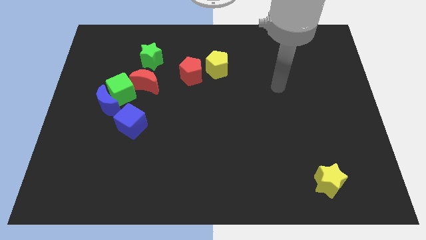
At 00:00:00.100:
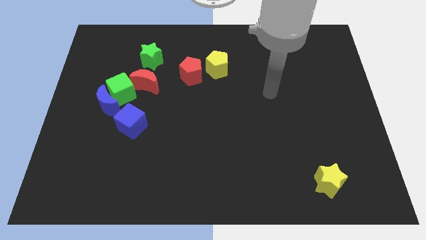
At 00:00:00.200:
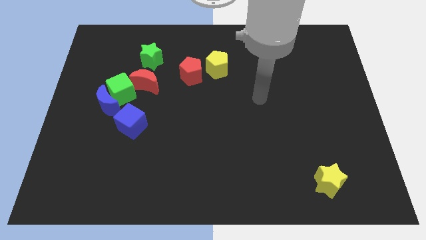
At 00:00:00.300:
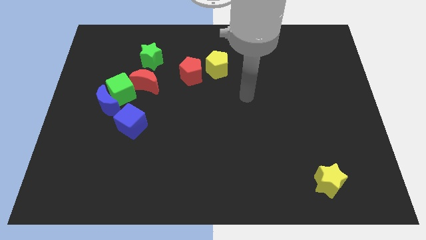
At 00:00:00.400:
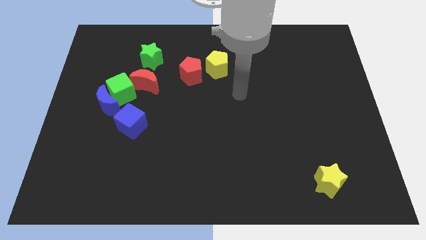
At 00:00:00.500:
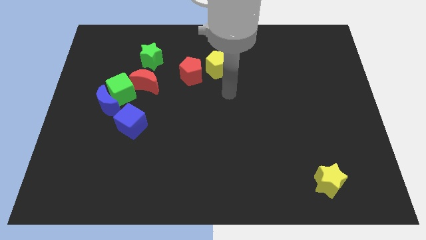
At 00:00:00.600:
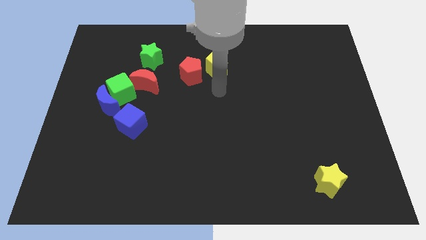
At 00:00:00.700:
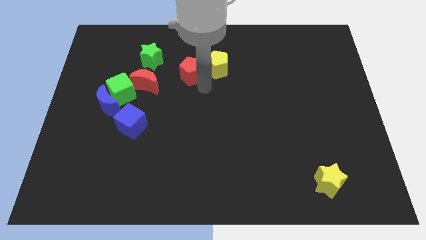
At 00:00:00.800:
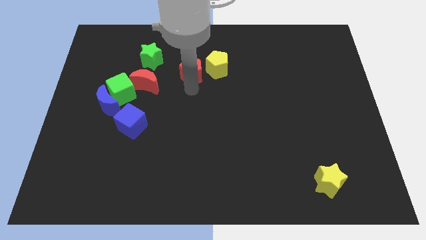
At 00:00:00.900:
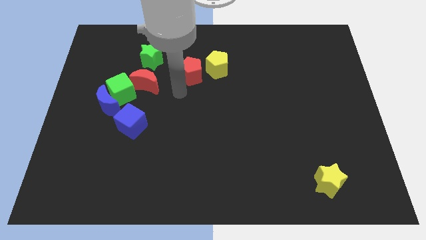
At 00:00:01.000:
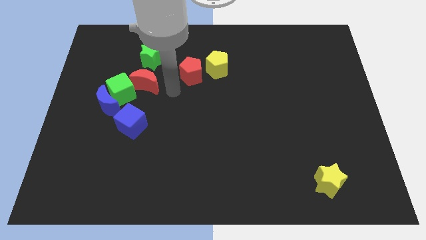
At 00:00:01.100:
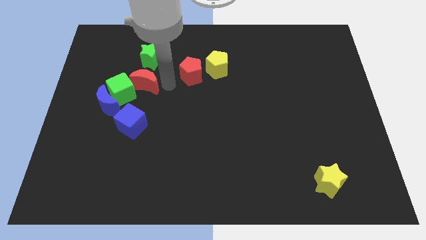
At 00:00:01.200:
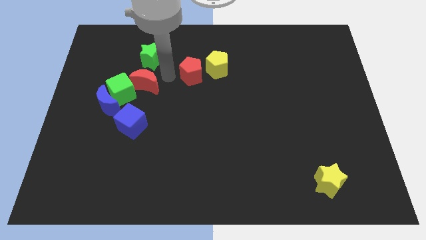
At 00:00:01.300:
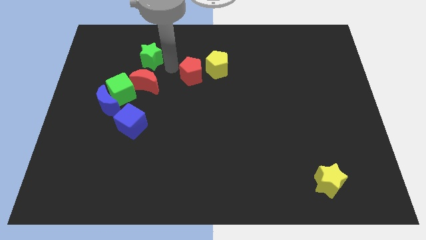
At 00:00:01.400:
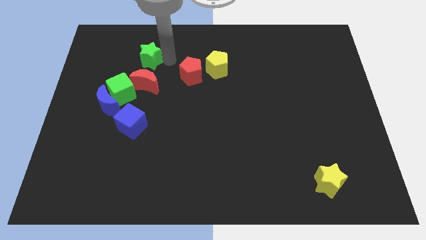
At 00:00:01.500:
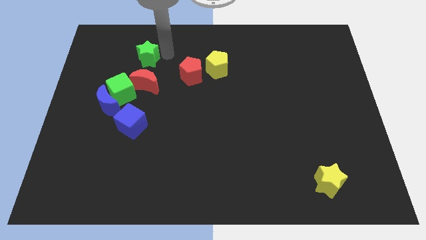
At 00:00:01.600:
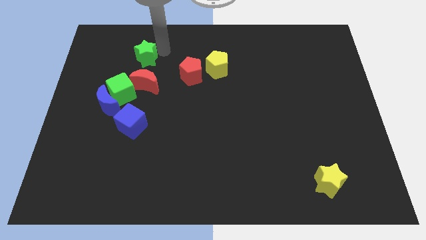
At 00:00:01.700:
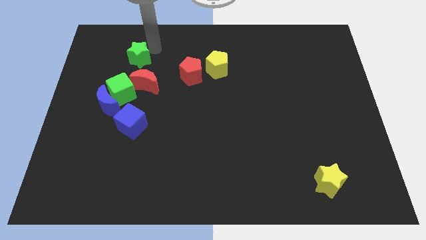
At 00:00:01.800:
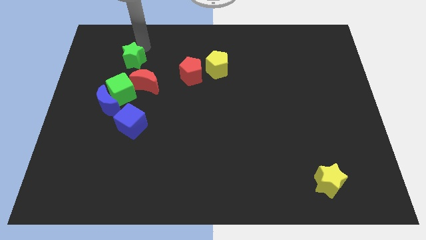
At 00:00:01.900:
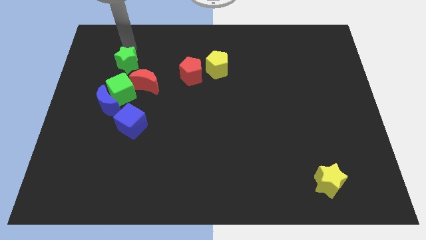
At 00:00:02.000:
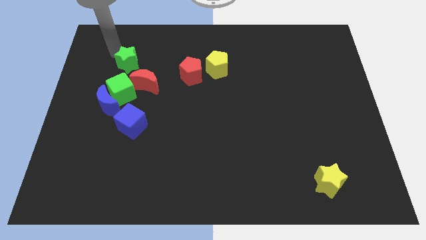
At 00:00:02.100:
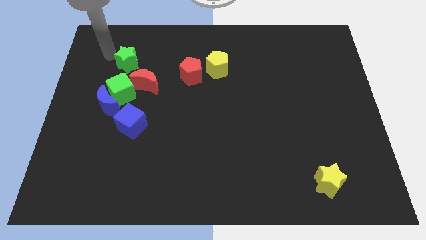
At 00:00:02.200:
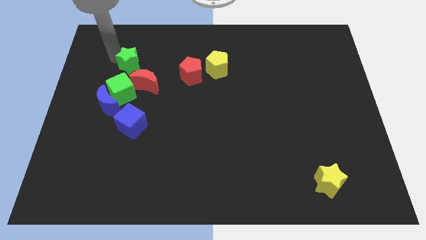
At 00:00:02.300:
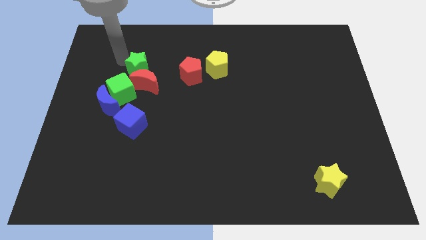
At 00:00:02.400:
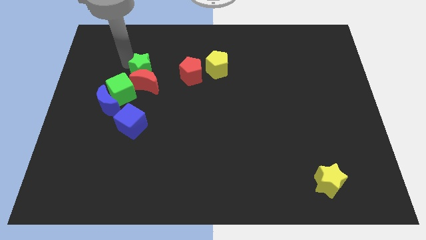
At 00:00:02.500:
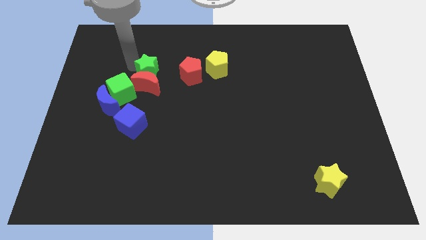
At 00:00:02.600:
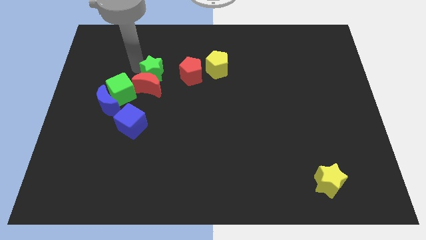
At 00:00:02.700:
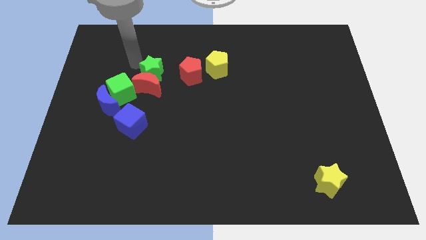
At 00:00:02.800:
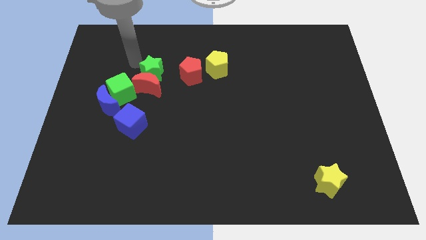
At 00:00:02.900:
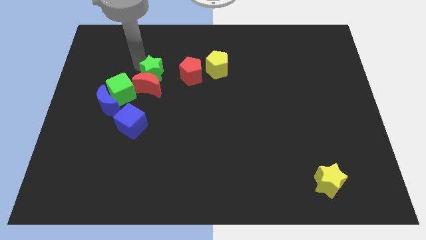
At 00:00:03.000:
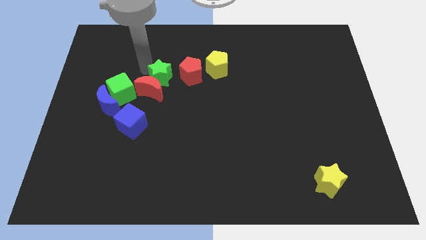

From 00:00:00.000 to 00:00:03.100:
push the green star a little bit diagonally down and to the right

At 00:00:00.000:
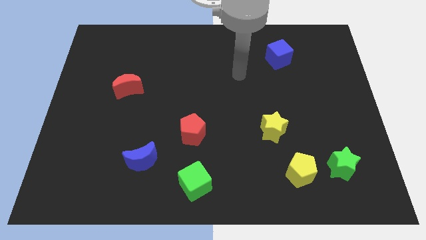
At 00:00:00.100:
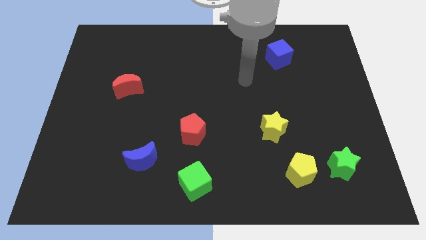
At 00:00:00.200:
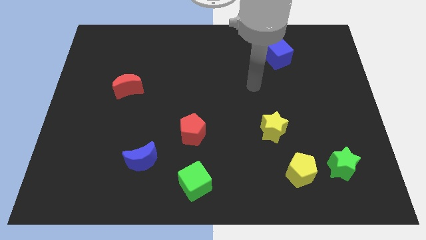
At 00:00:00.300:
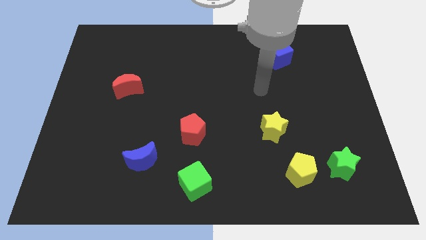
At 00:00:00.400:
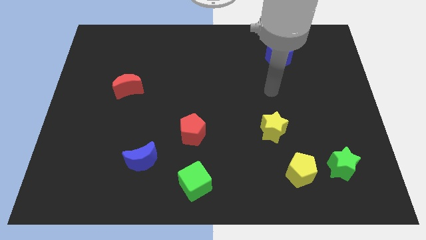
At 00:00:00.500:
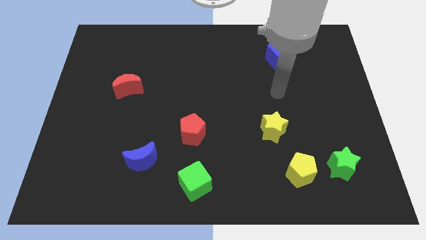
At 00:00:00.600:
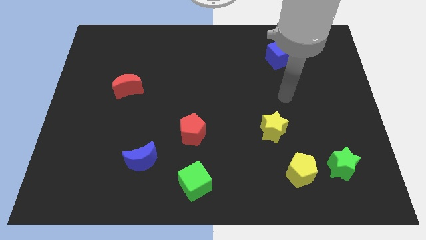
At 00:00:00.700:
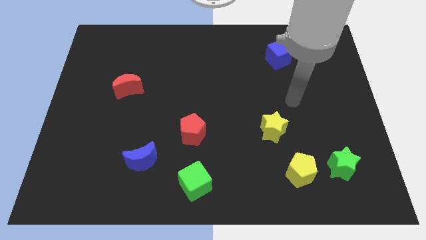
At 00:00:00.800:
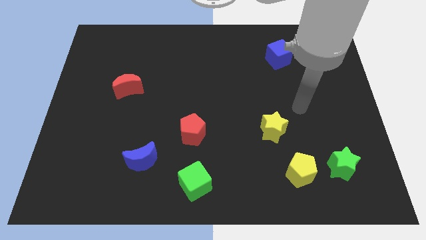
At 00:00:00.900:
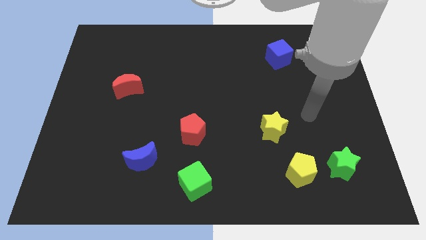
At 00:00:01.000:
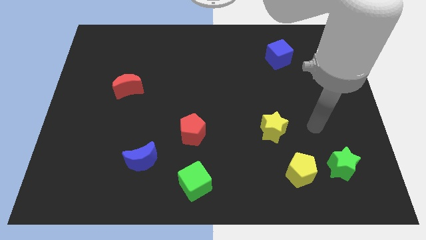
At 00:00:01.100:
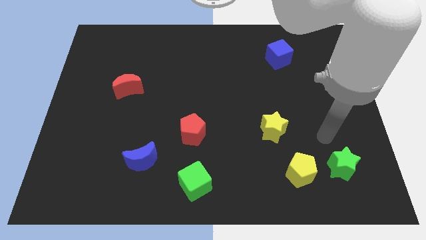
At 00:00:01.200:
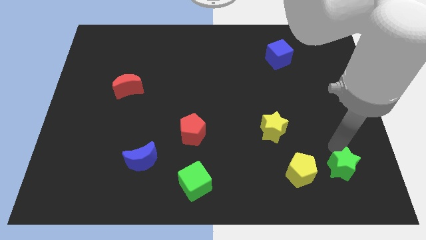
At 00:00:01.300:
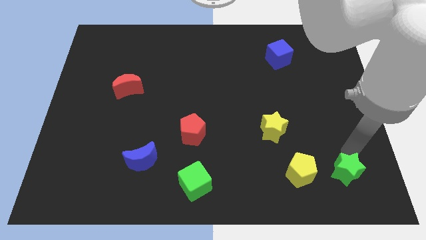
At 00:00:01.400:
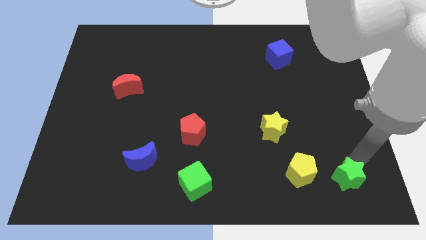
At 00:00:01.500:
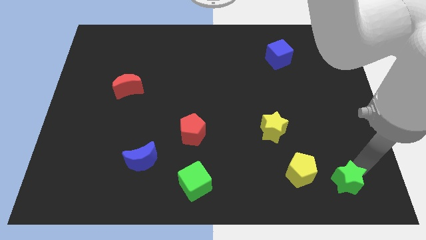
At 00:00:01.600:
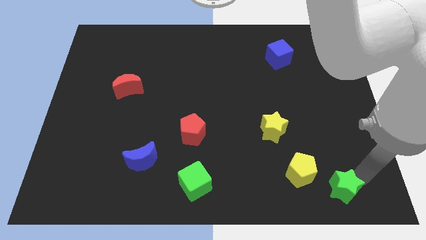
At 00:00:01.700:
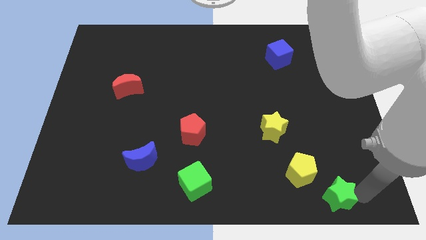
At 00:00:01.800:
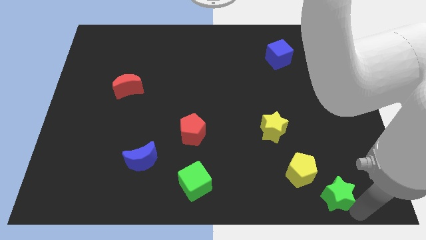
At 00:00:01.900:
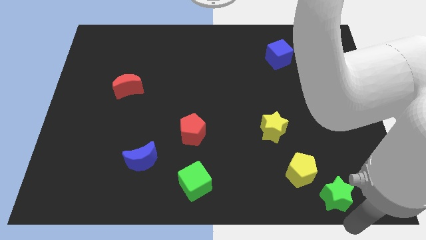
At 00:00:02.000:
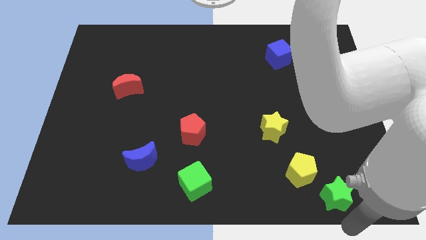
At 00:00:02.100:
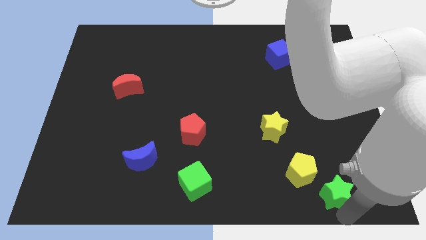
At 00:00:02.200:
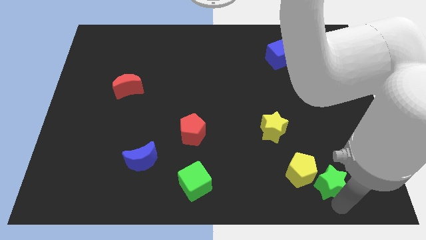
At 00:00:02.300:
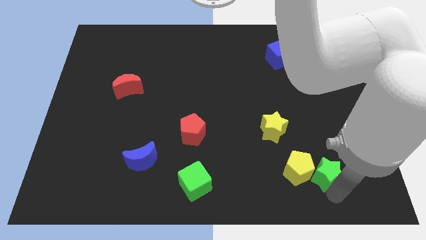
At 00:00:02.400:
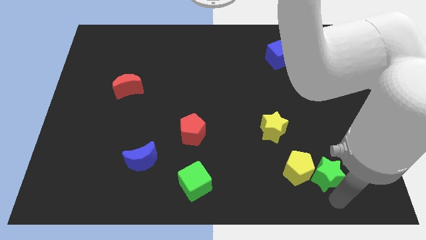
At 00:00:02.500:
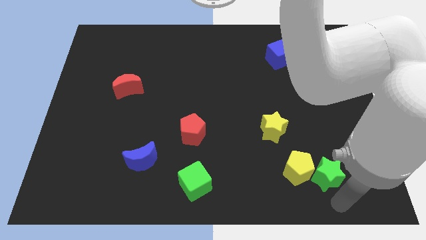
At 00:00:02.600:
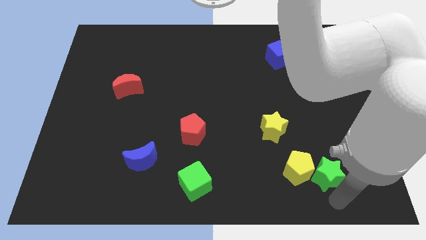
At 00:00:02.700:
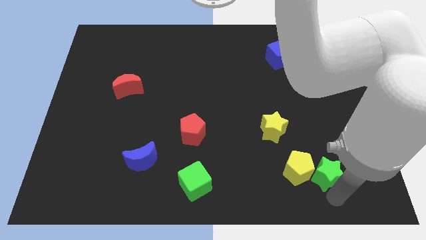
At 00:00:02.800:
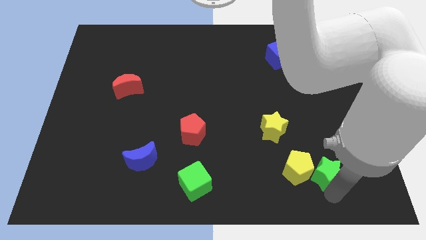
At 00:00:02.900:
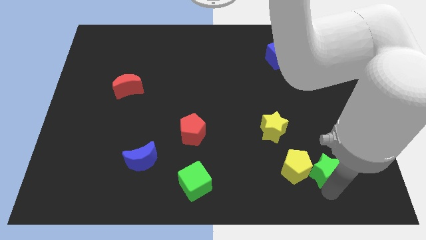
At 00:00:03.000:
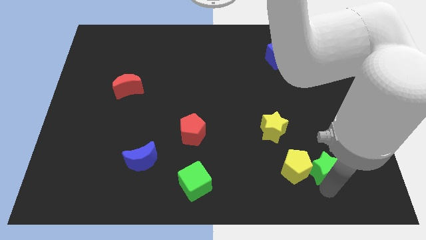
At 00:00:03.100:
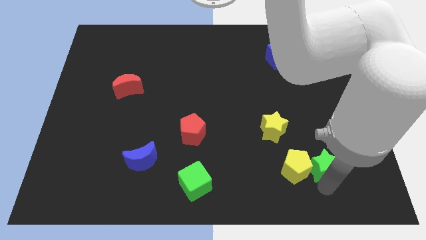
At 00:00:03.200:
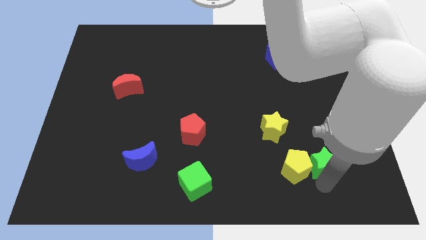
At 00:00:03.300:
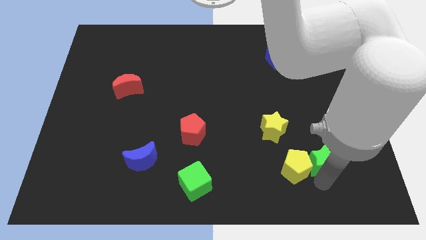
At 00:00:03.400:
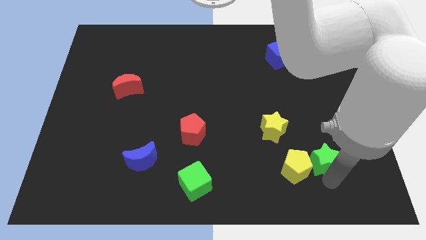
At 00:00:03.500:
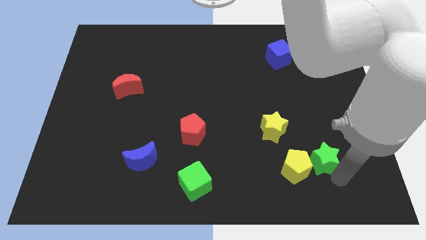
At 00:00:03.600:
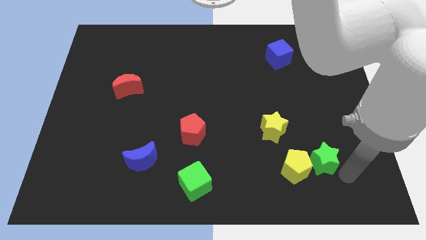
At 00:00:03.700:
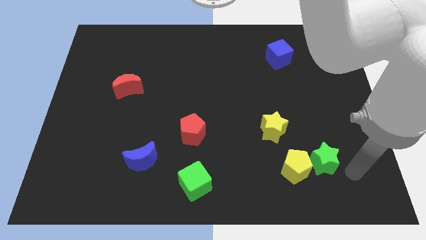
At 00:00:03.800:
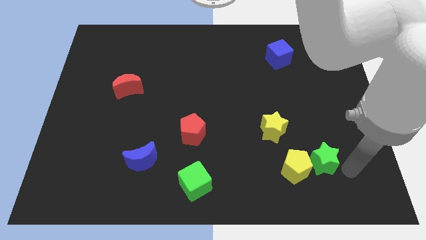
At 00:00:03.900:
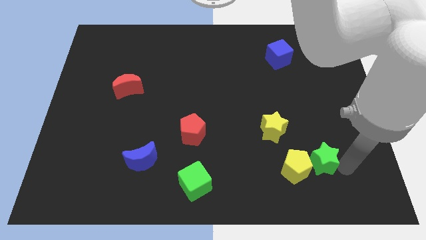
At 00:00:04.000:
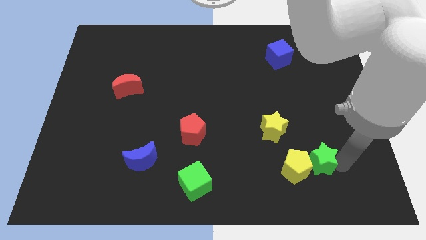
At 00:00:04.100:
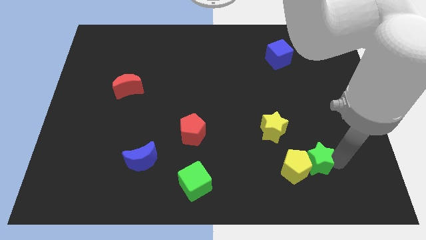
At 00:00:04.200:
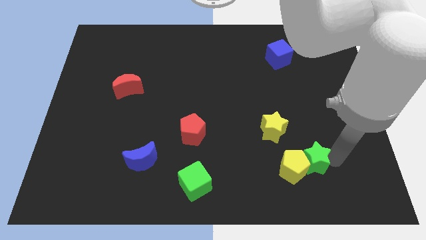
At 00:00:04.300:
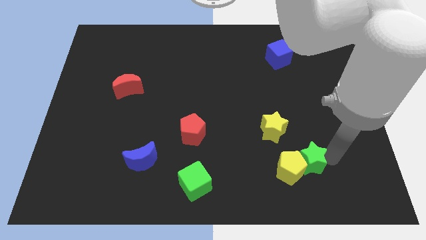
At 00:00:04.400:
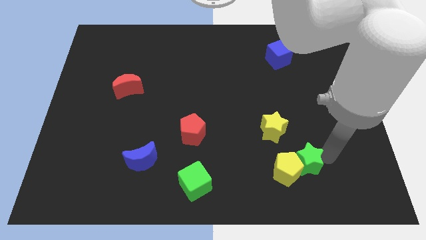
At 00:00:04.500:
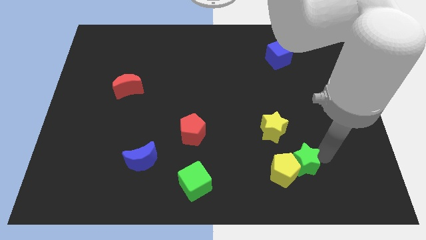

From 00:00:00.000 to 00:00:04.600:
push the green star to the left slightly
